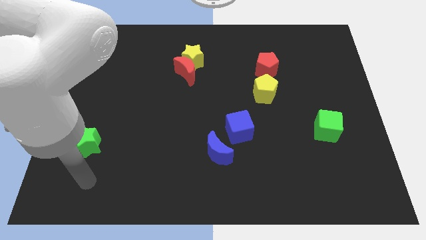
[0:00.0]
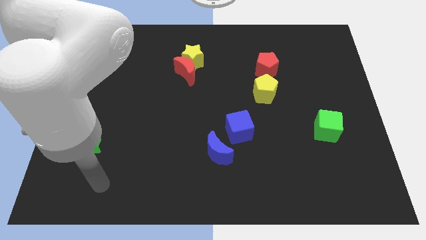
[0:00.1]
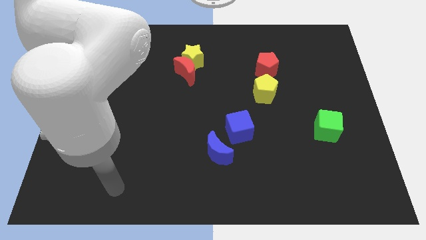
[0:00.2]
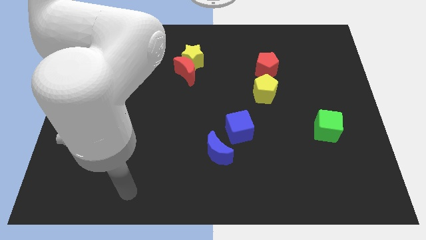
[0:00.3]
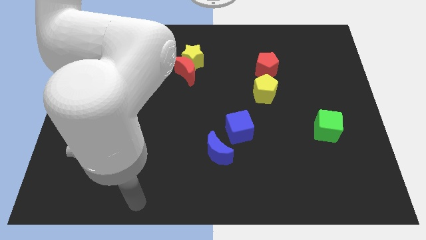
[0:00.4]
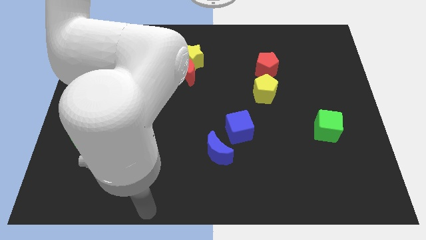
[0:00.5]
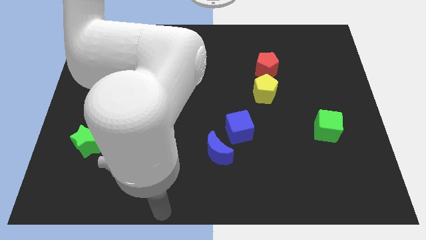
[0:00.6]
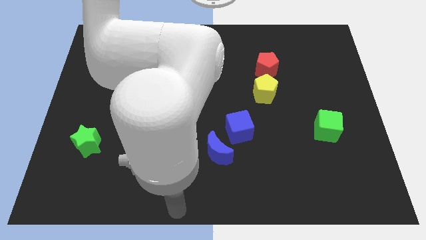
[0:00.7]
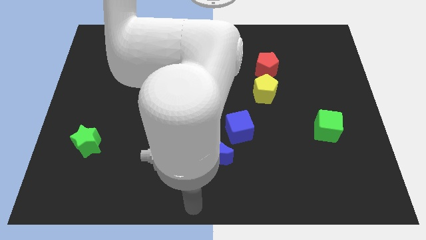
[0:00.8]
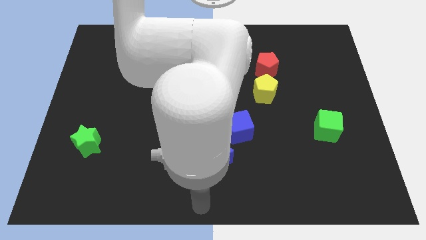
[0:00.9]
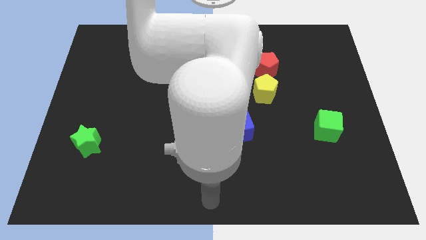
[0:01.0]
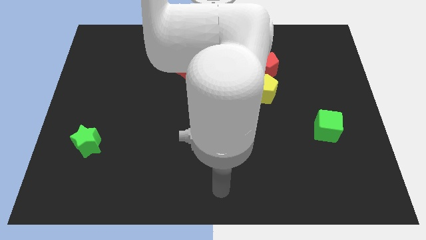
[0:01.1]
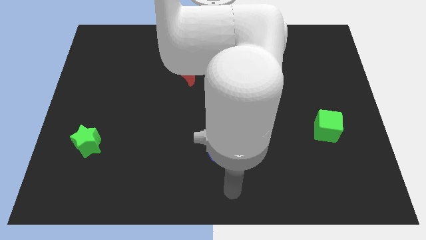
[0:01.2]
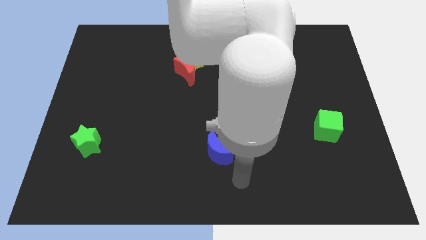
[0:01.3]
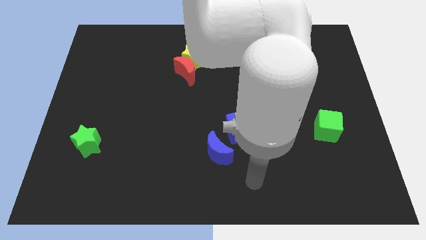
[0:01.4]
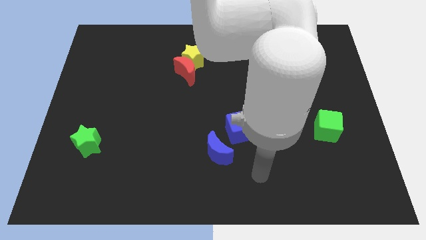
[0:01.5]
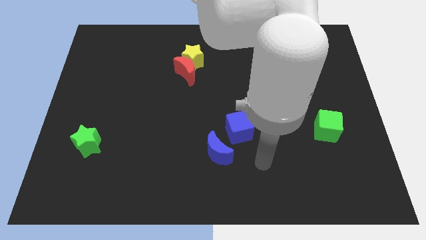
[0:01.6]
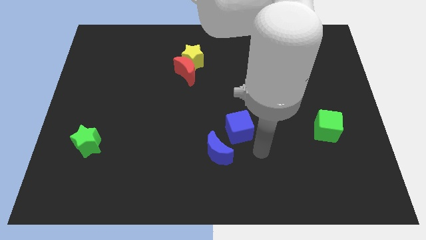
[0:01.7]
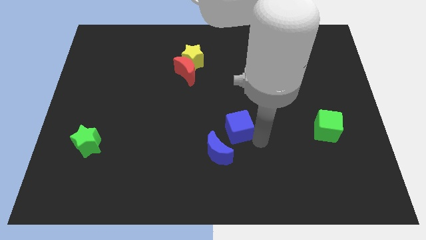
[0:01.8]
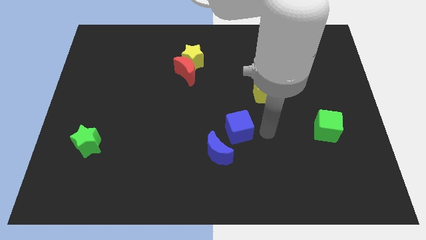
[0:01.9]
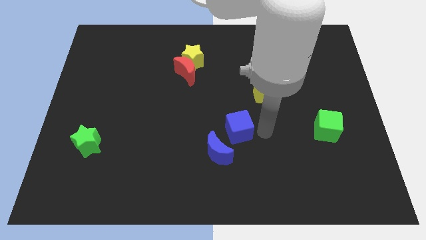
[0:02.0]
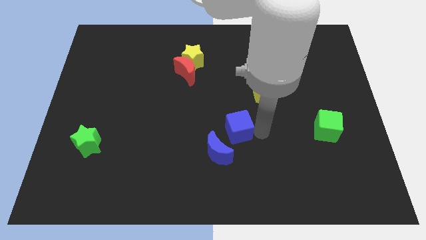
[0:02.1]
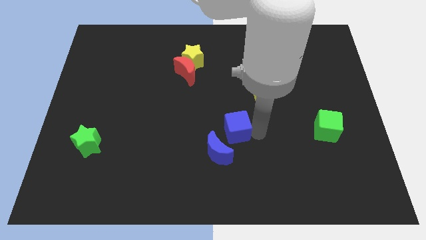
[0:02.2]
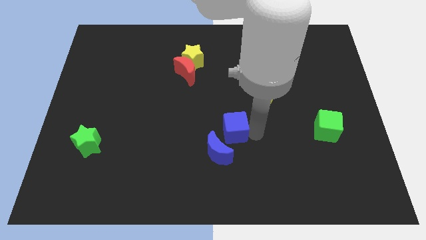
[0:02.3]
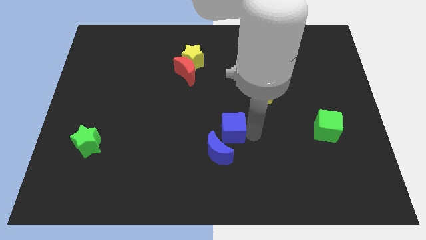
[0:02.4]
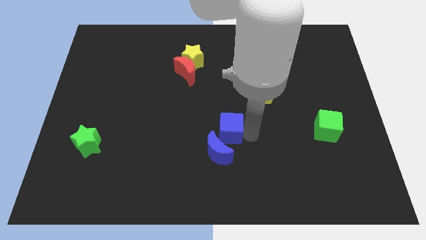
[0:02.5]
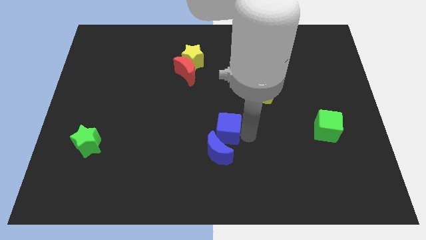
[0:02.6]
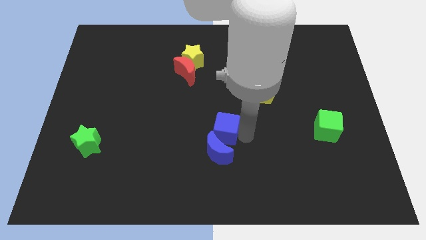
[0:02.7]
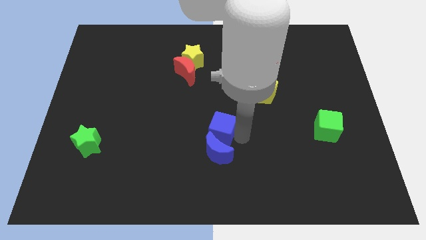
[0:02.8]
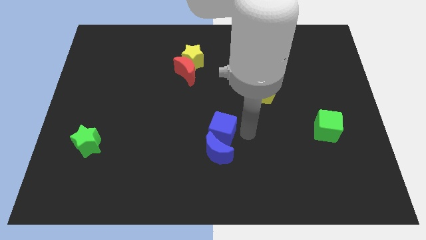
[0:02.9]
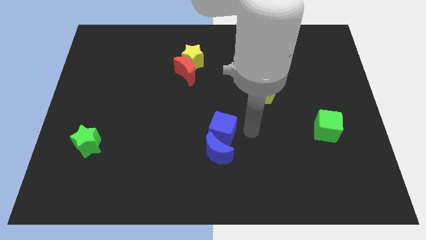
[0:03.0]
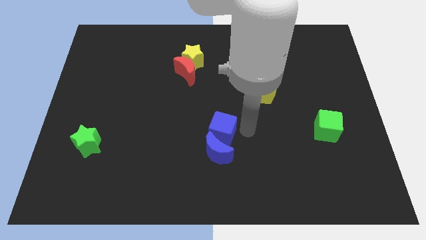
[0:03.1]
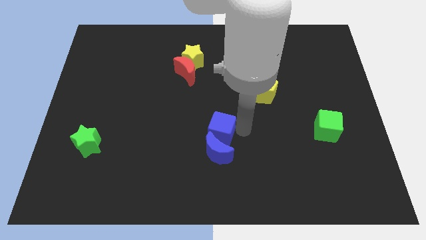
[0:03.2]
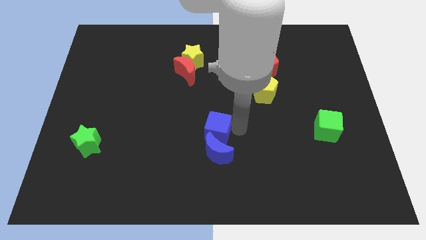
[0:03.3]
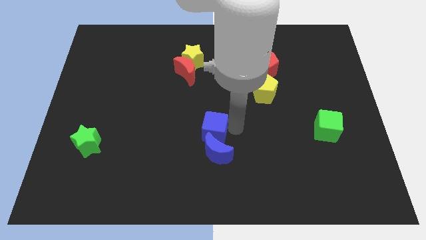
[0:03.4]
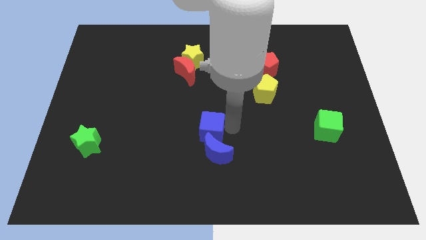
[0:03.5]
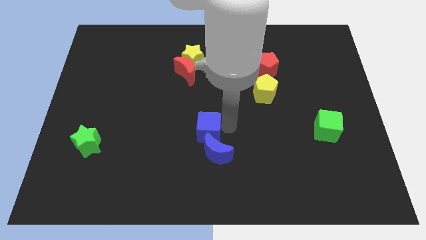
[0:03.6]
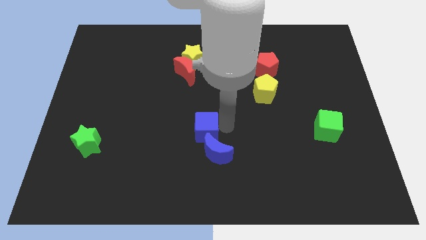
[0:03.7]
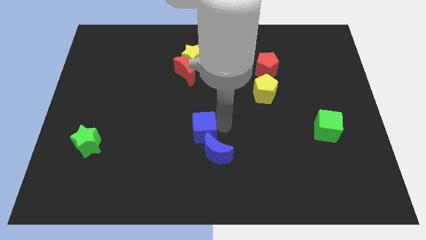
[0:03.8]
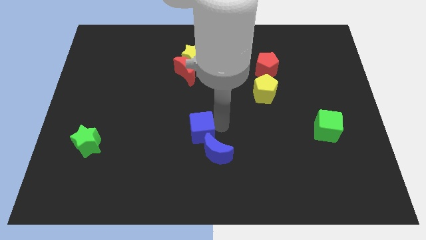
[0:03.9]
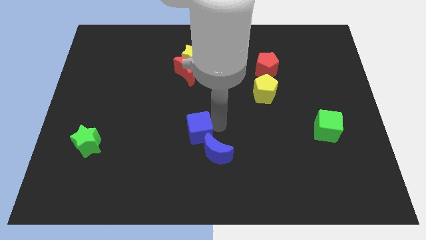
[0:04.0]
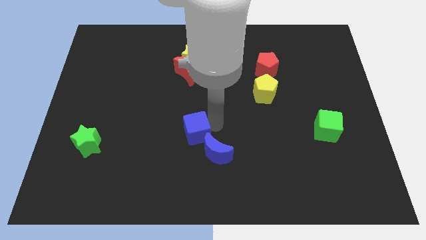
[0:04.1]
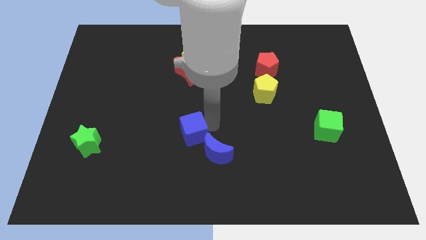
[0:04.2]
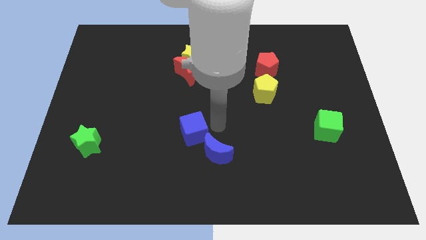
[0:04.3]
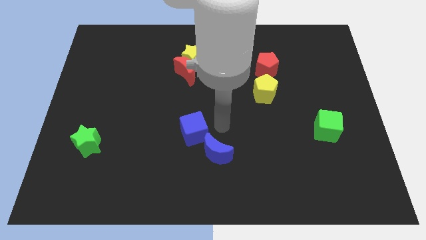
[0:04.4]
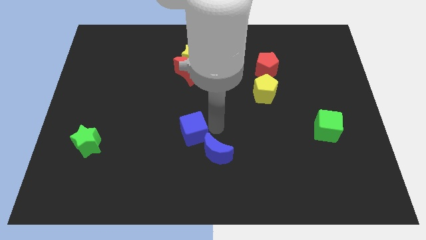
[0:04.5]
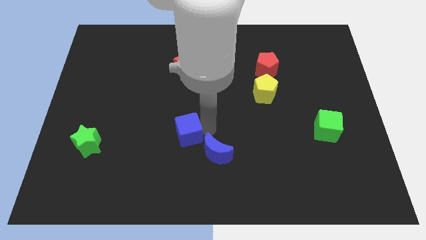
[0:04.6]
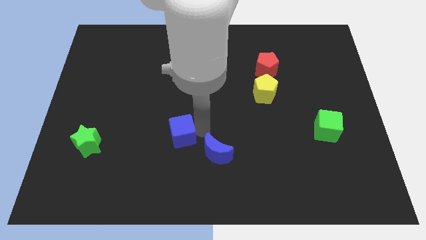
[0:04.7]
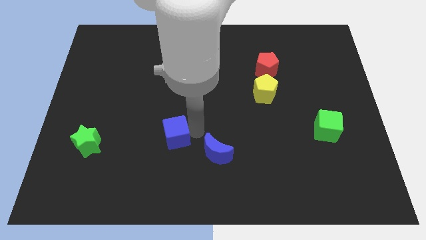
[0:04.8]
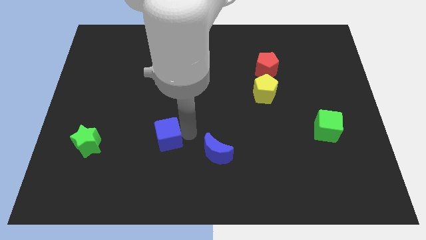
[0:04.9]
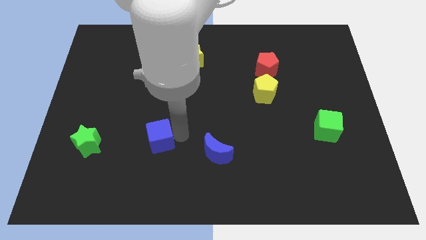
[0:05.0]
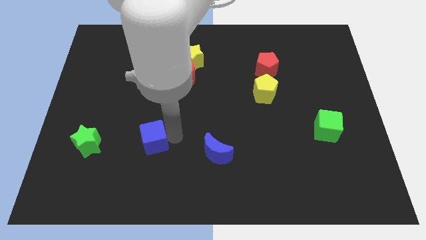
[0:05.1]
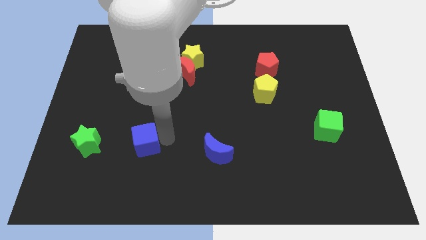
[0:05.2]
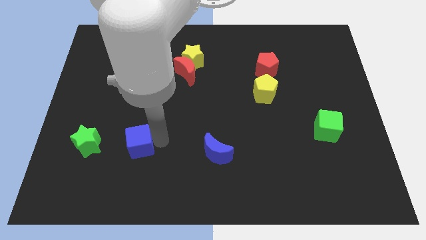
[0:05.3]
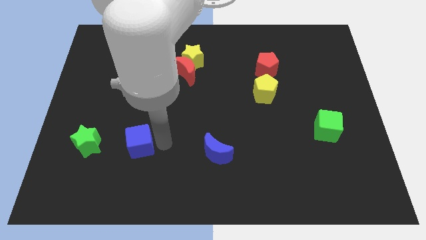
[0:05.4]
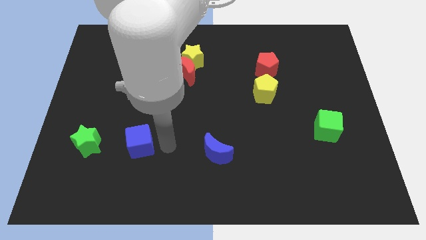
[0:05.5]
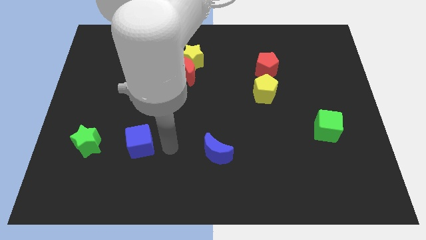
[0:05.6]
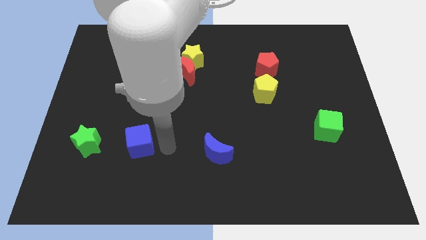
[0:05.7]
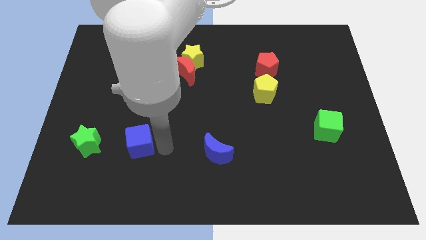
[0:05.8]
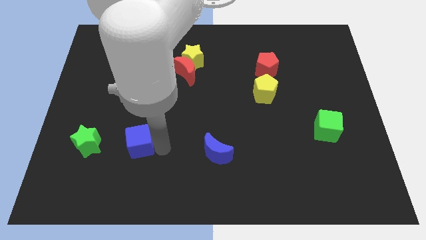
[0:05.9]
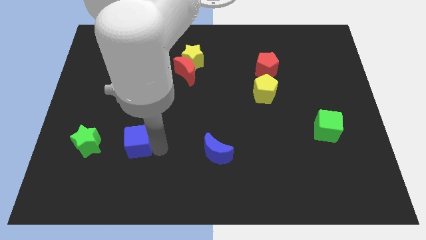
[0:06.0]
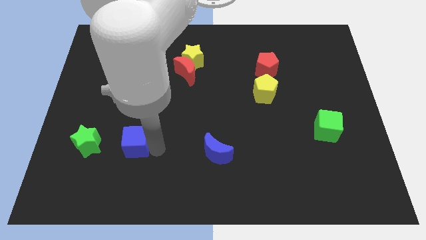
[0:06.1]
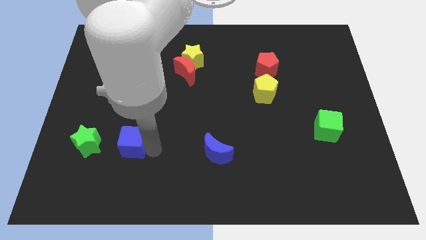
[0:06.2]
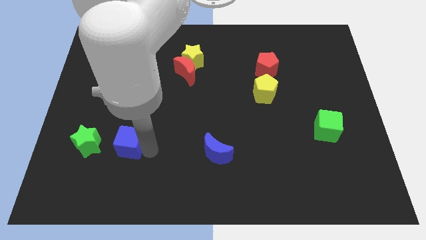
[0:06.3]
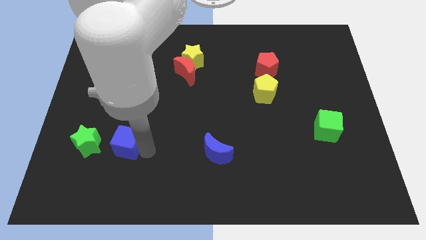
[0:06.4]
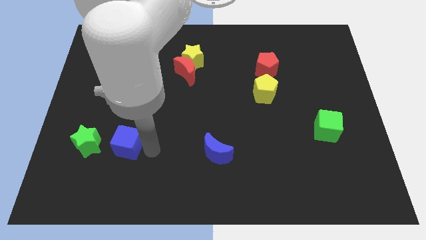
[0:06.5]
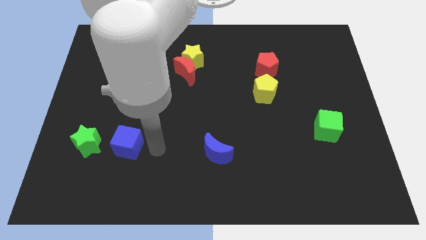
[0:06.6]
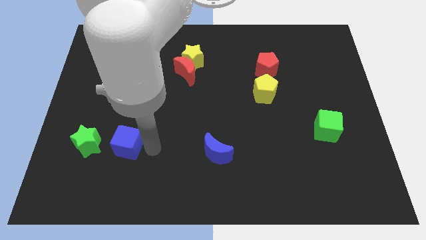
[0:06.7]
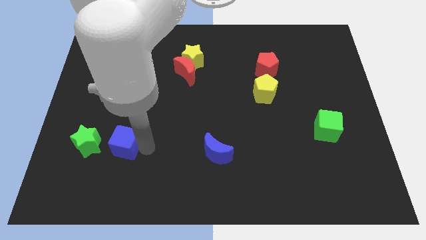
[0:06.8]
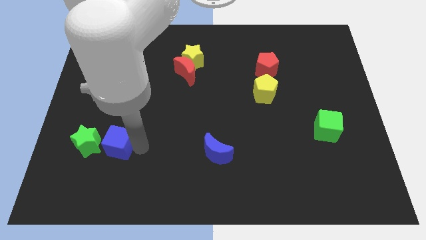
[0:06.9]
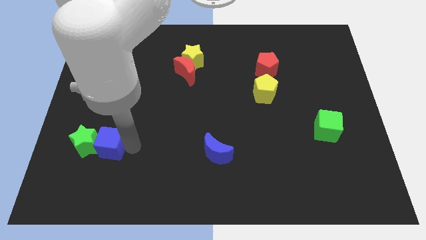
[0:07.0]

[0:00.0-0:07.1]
push the blue cube towards the green star
